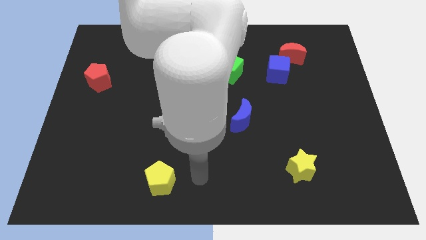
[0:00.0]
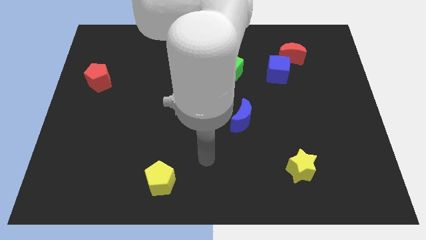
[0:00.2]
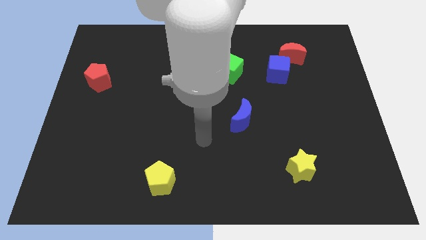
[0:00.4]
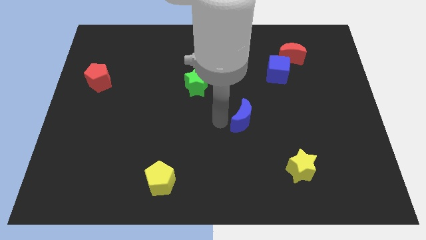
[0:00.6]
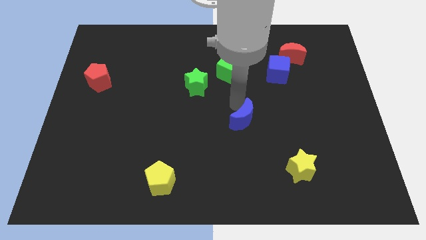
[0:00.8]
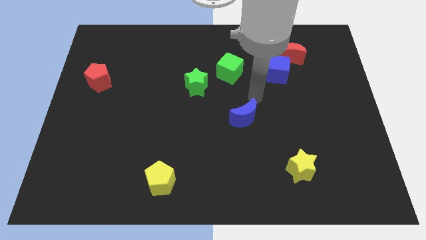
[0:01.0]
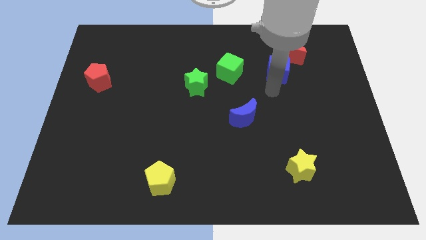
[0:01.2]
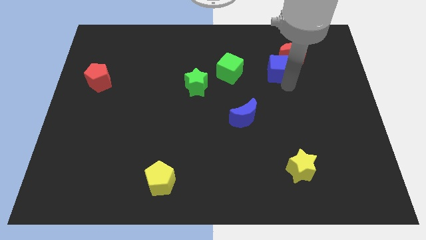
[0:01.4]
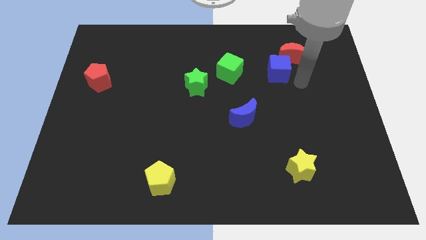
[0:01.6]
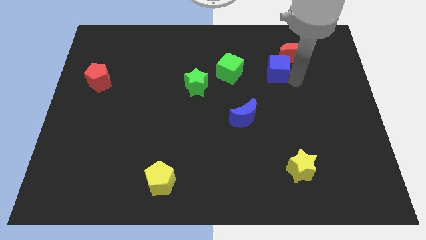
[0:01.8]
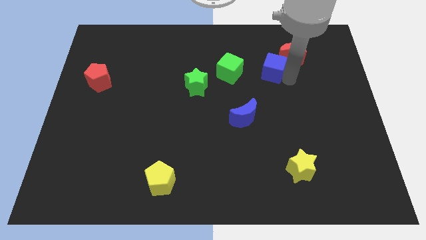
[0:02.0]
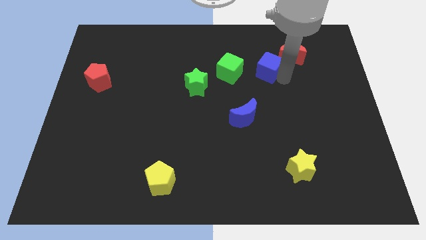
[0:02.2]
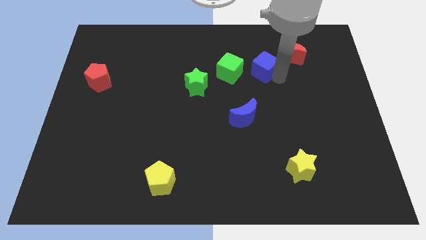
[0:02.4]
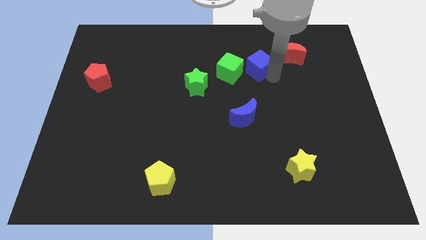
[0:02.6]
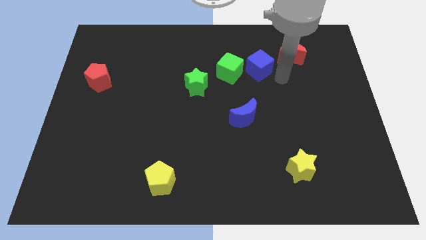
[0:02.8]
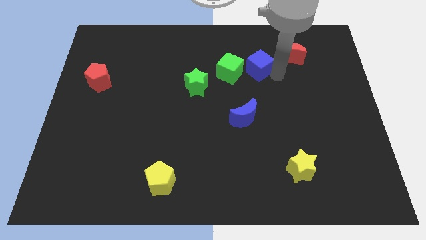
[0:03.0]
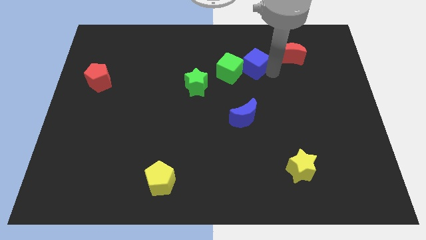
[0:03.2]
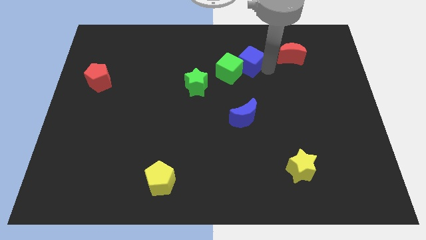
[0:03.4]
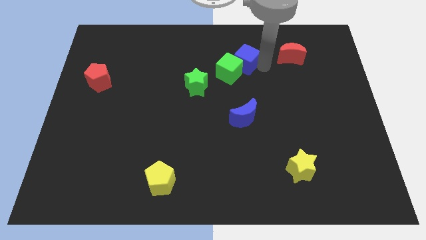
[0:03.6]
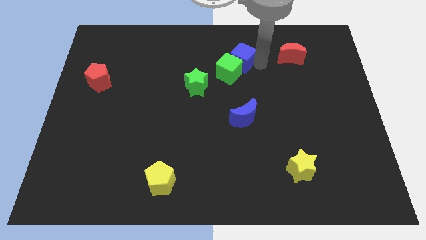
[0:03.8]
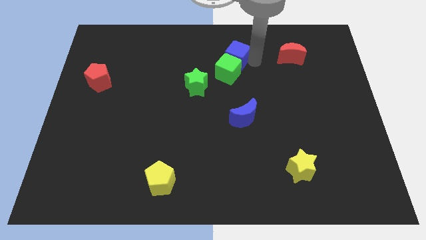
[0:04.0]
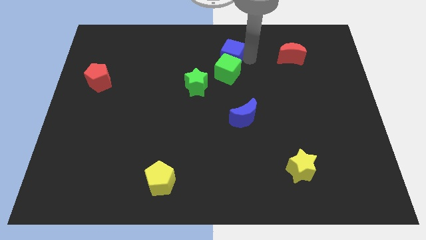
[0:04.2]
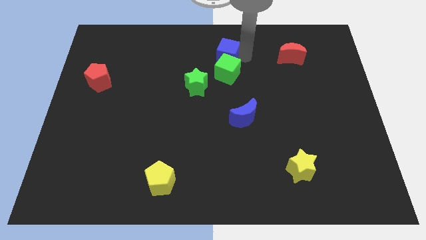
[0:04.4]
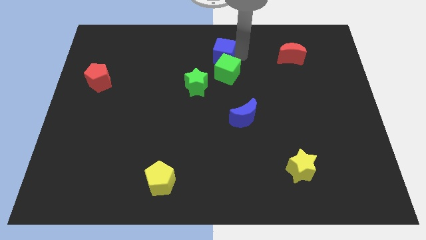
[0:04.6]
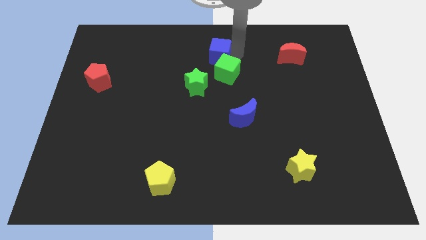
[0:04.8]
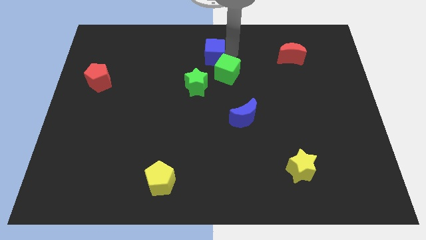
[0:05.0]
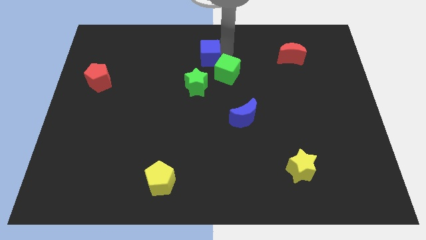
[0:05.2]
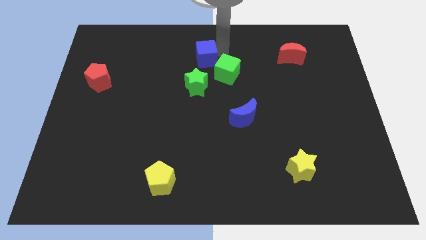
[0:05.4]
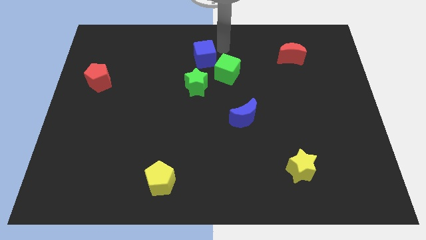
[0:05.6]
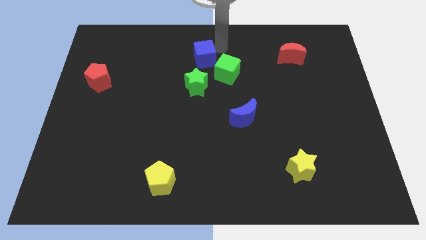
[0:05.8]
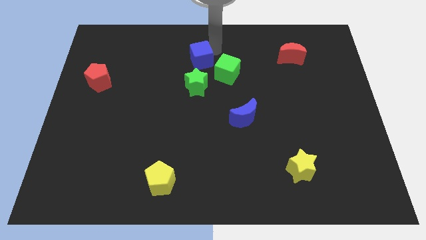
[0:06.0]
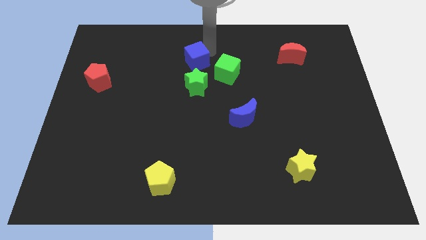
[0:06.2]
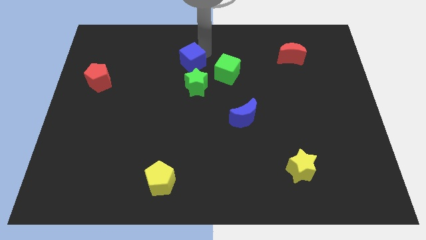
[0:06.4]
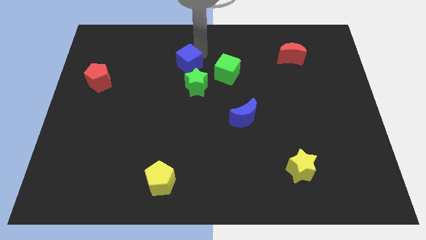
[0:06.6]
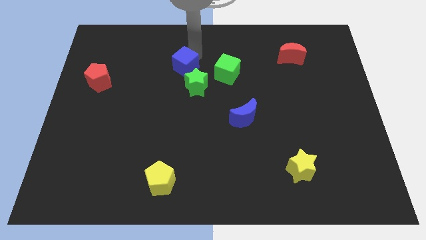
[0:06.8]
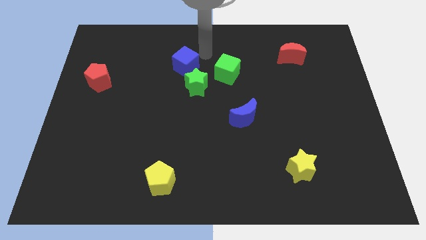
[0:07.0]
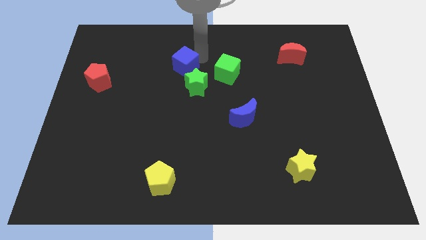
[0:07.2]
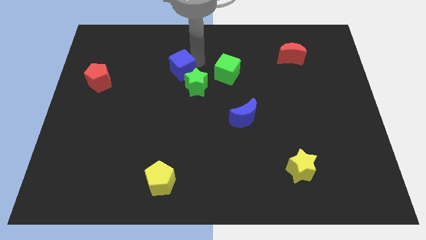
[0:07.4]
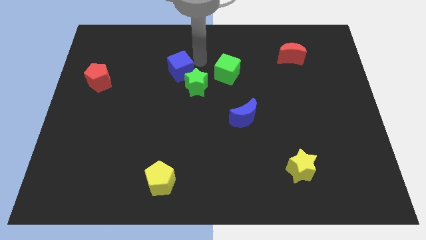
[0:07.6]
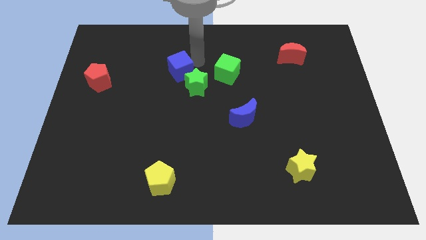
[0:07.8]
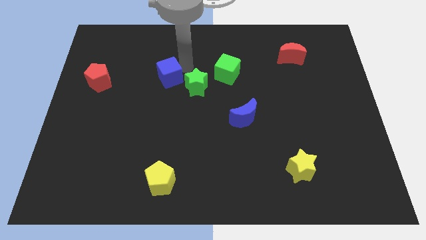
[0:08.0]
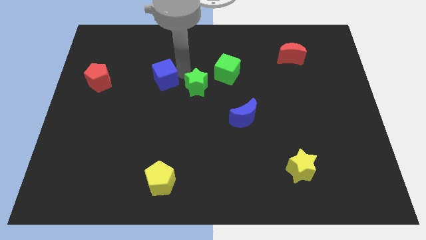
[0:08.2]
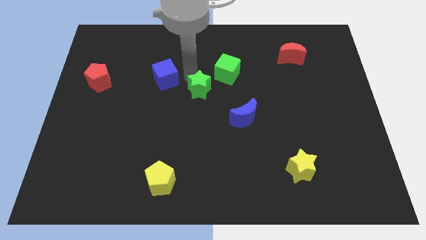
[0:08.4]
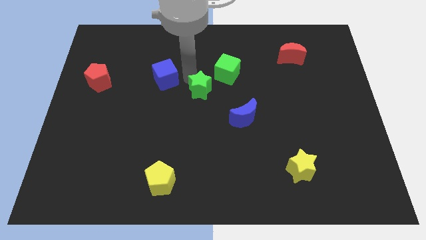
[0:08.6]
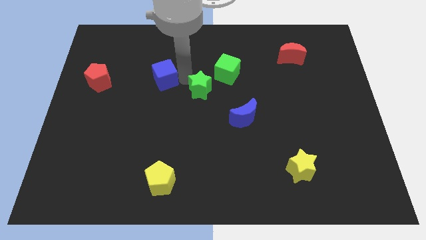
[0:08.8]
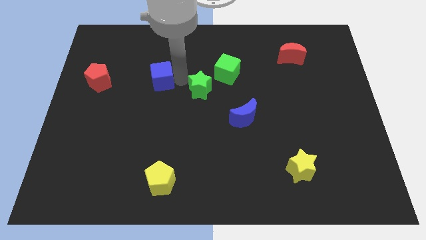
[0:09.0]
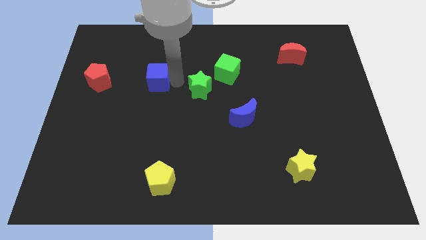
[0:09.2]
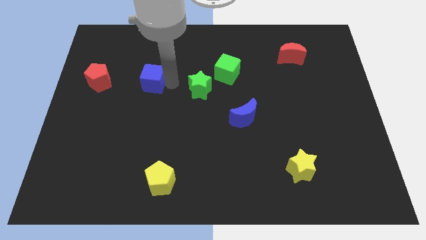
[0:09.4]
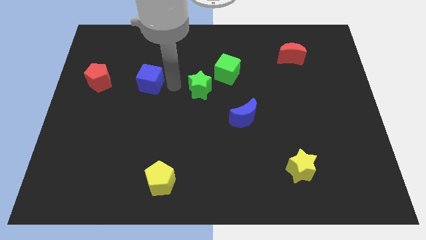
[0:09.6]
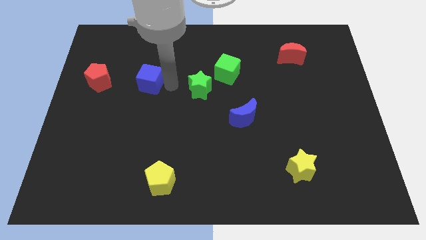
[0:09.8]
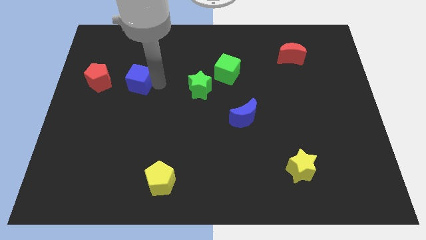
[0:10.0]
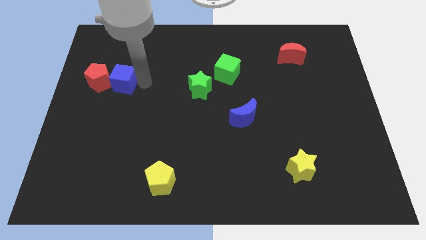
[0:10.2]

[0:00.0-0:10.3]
push the blue cube next to the red pentagon

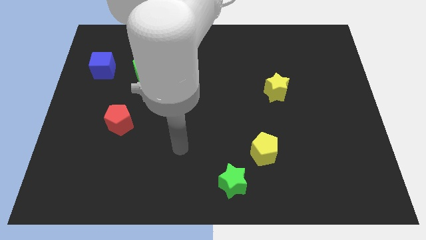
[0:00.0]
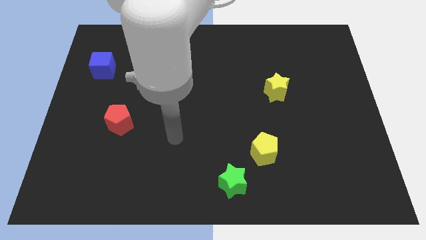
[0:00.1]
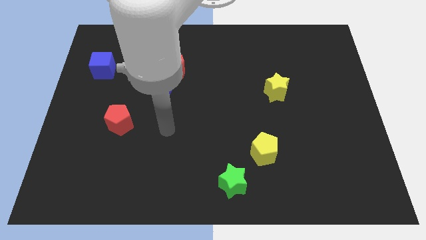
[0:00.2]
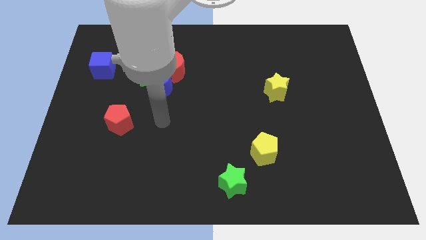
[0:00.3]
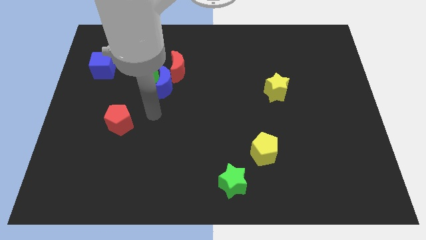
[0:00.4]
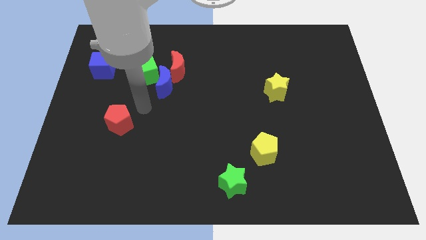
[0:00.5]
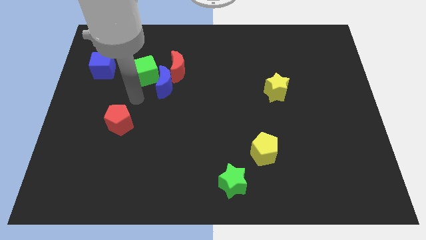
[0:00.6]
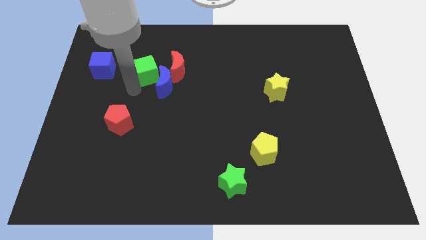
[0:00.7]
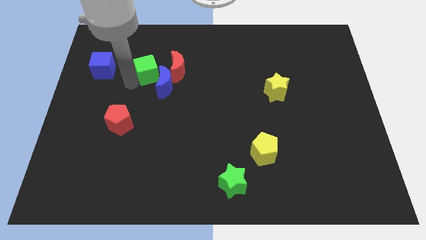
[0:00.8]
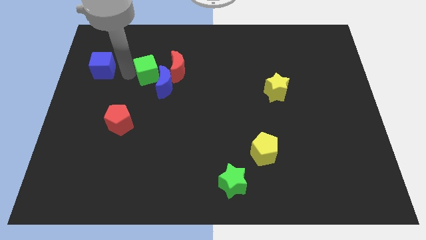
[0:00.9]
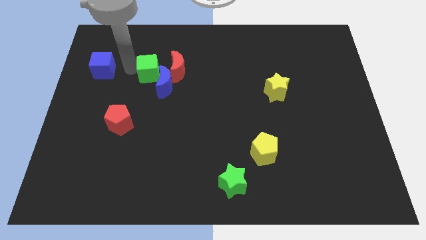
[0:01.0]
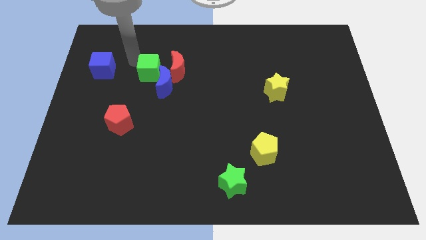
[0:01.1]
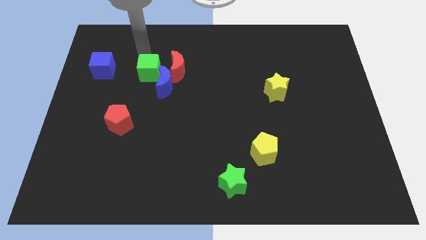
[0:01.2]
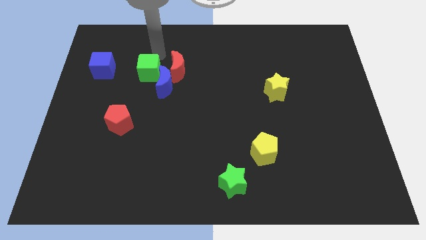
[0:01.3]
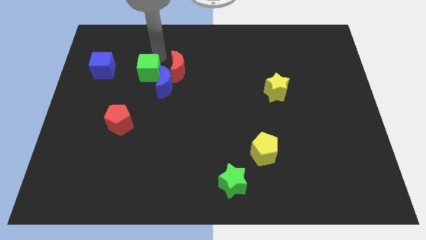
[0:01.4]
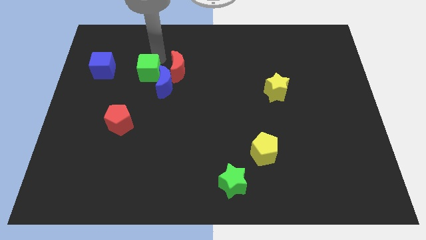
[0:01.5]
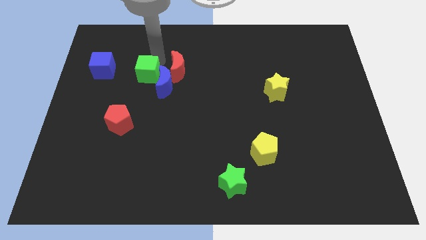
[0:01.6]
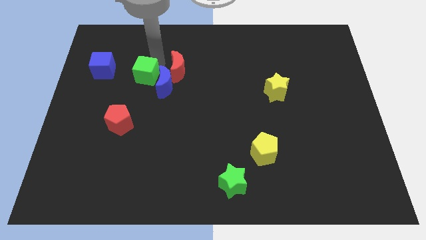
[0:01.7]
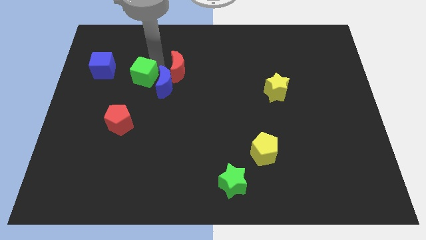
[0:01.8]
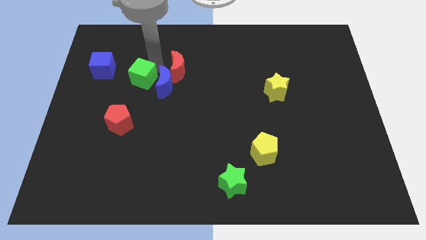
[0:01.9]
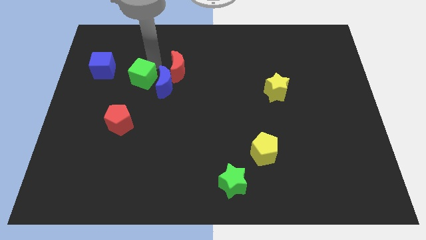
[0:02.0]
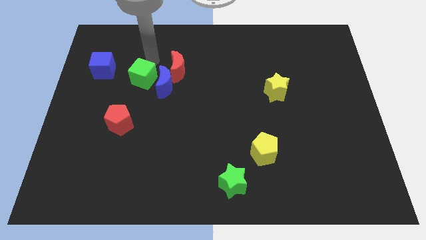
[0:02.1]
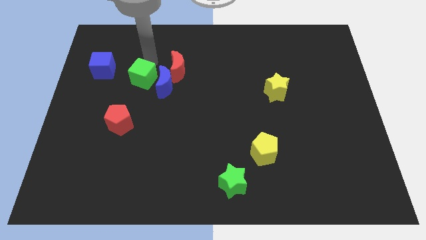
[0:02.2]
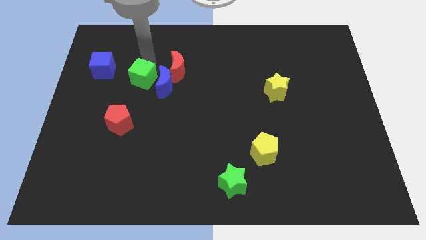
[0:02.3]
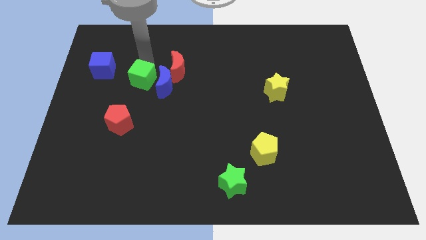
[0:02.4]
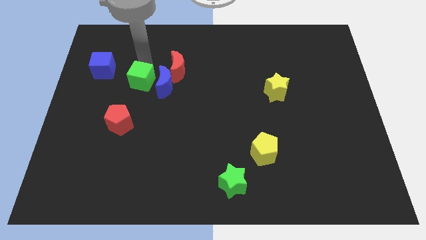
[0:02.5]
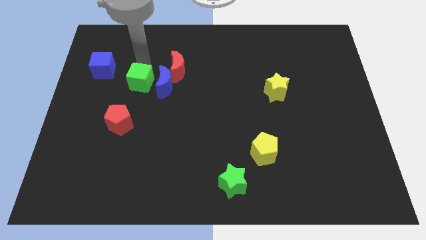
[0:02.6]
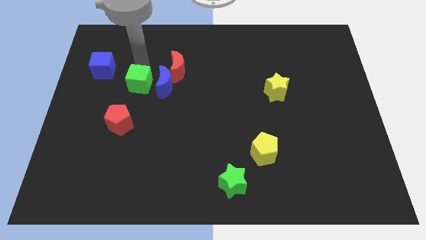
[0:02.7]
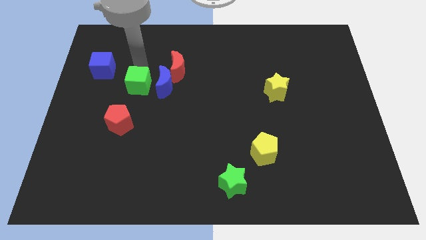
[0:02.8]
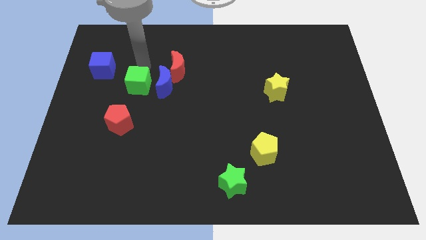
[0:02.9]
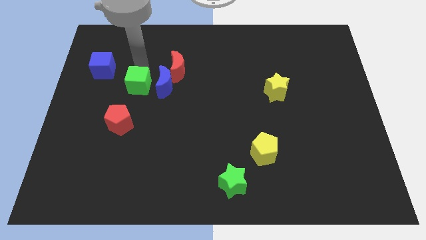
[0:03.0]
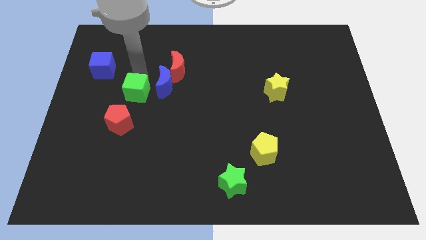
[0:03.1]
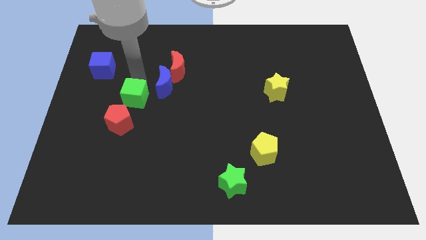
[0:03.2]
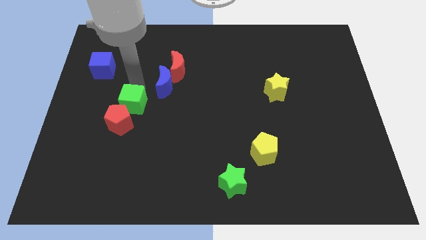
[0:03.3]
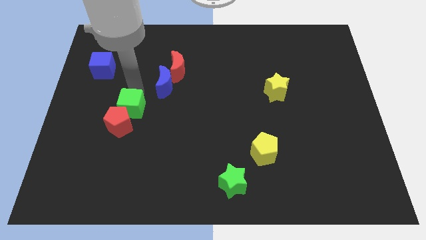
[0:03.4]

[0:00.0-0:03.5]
move the green cube close to the red pentagon
